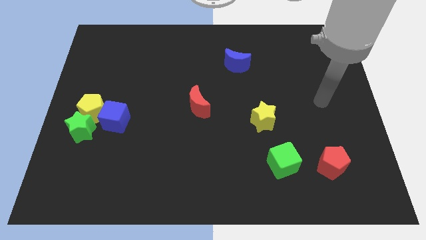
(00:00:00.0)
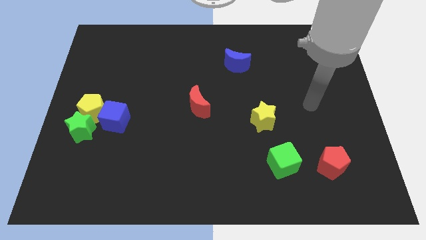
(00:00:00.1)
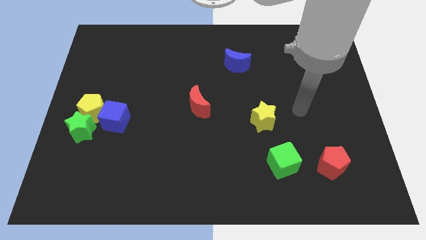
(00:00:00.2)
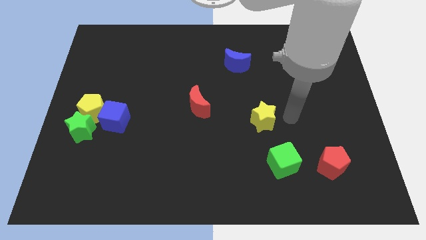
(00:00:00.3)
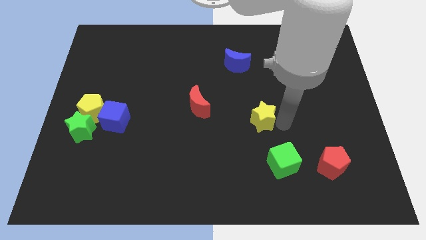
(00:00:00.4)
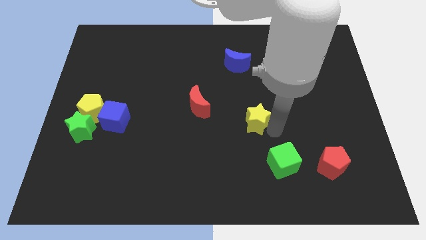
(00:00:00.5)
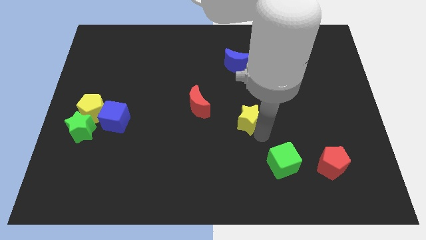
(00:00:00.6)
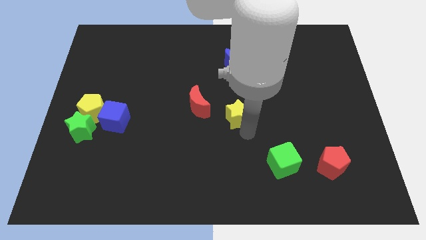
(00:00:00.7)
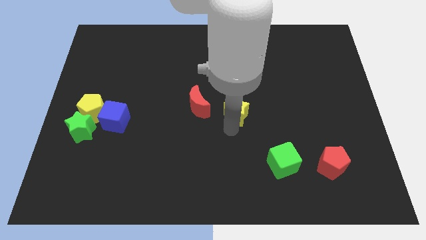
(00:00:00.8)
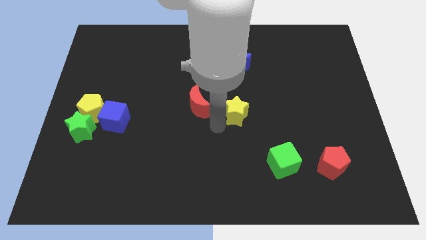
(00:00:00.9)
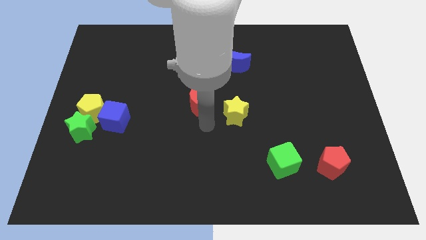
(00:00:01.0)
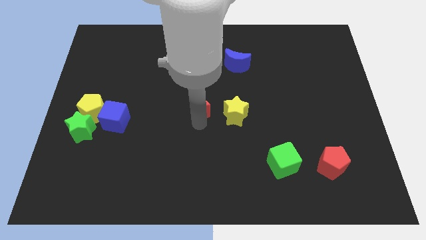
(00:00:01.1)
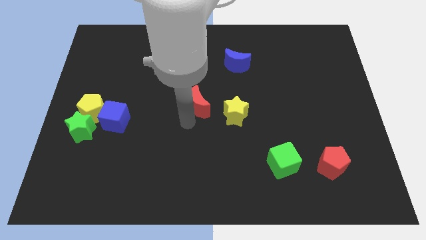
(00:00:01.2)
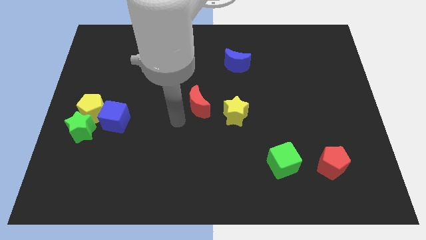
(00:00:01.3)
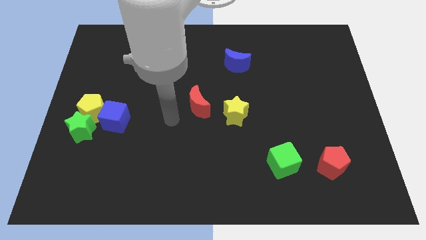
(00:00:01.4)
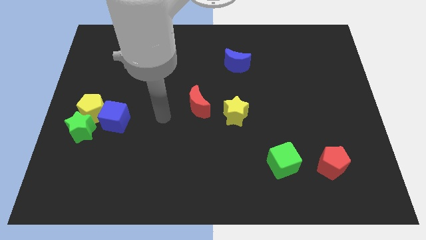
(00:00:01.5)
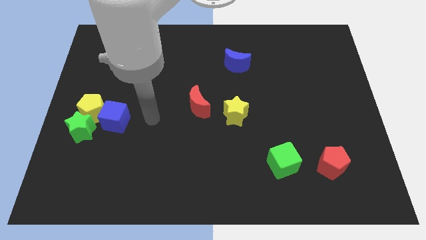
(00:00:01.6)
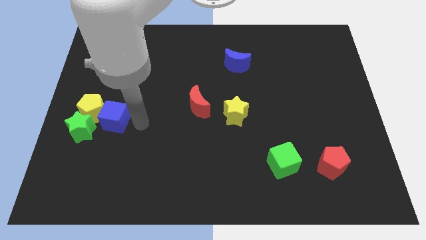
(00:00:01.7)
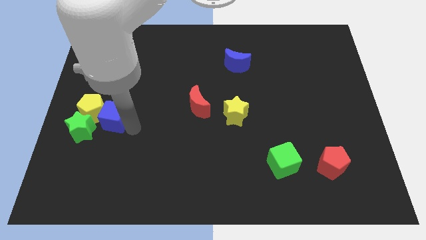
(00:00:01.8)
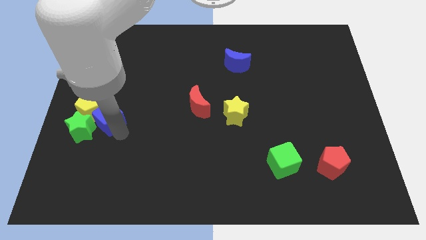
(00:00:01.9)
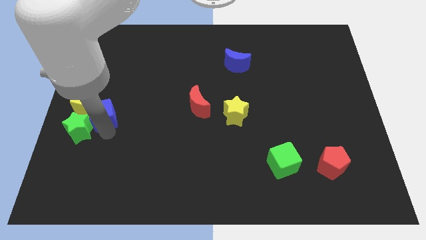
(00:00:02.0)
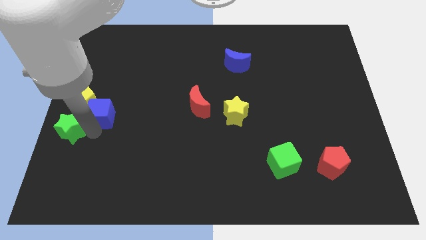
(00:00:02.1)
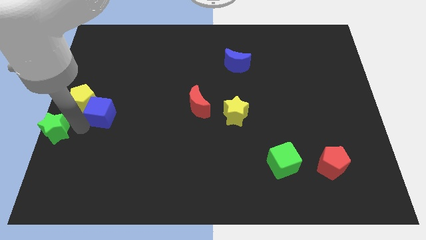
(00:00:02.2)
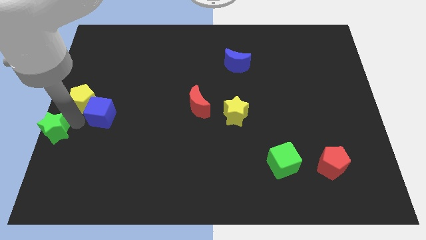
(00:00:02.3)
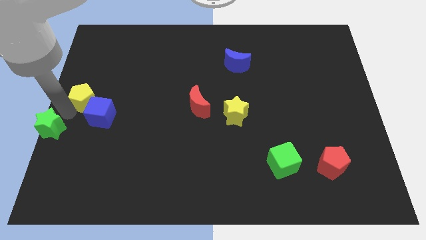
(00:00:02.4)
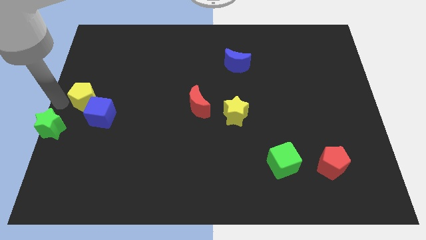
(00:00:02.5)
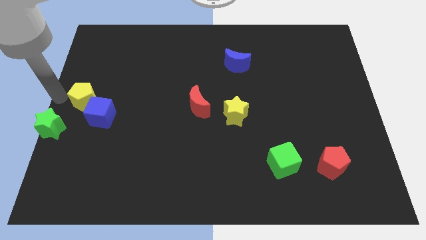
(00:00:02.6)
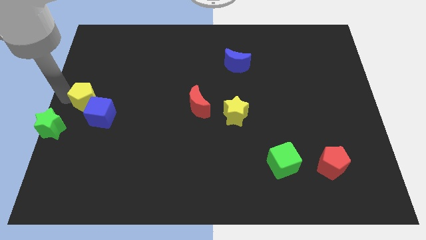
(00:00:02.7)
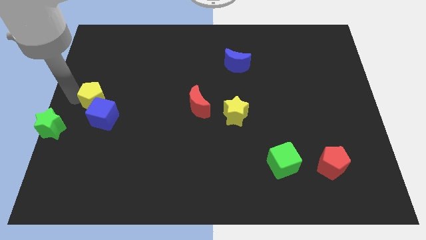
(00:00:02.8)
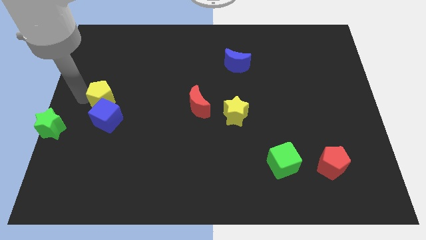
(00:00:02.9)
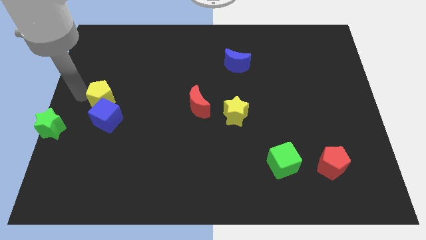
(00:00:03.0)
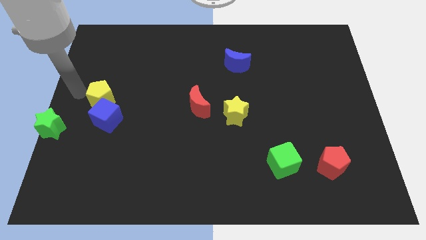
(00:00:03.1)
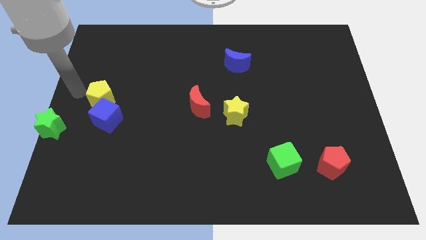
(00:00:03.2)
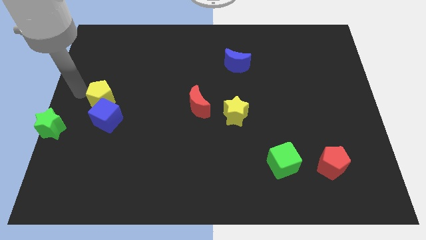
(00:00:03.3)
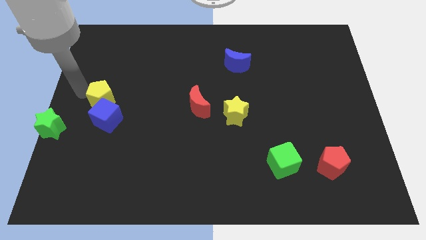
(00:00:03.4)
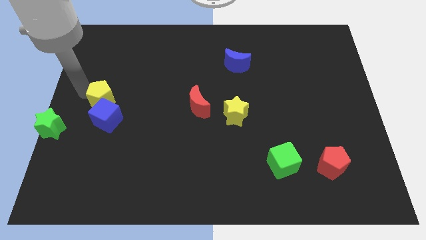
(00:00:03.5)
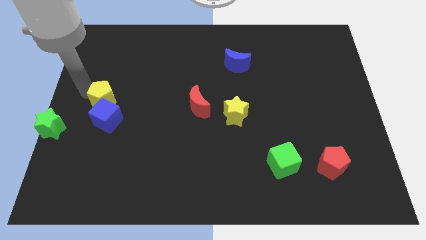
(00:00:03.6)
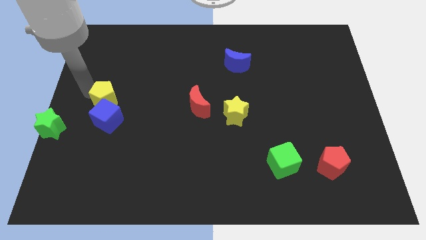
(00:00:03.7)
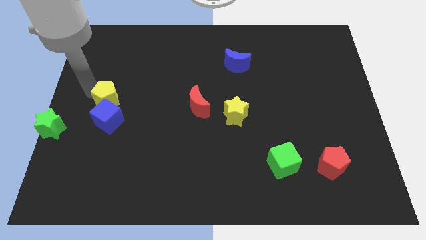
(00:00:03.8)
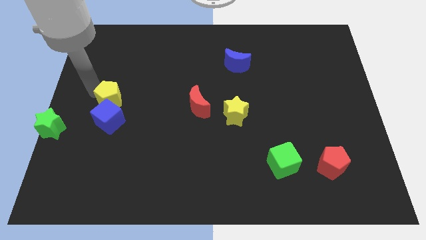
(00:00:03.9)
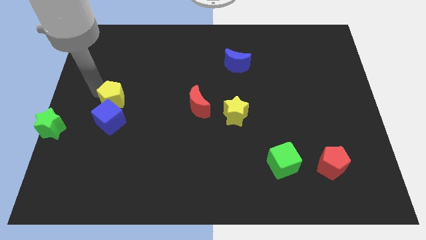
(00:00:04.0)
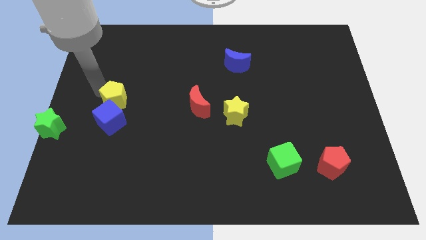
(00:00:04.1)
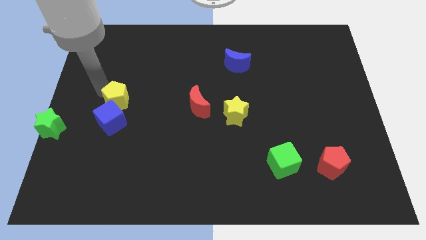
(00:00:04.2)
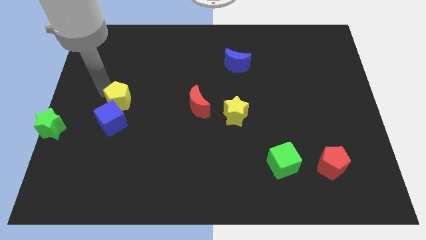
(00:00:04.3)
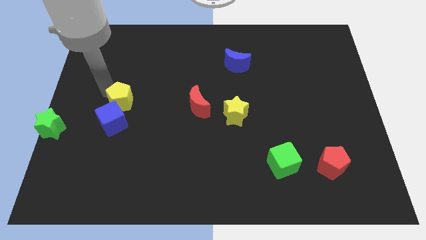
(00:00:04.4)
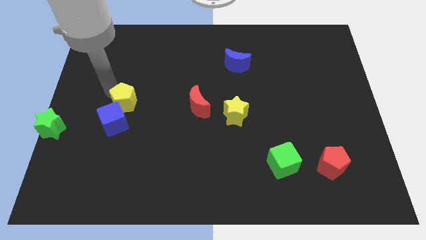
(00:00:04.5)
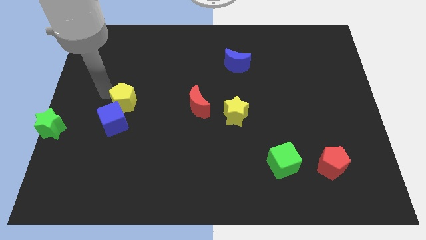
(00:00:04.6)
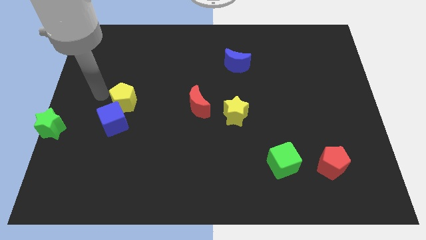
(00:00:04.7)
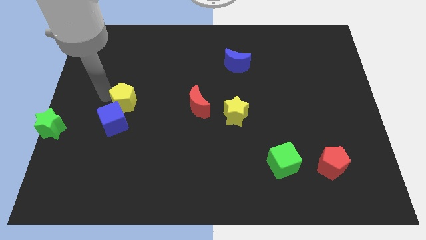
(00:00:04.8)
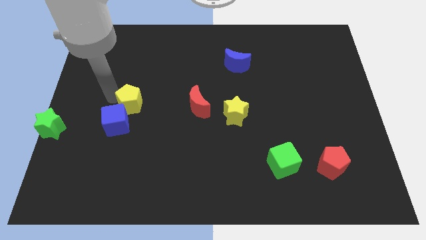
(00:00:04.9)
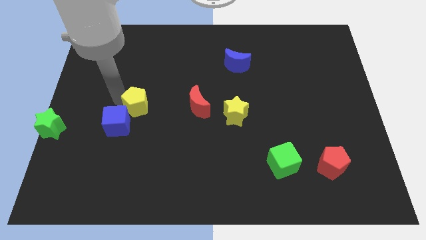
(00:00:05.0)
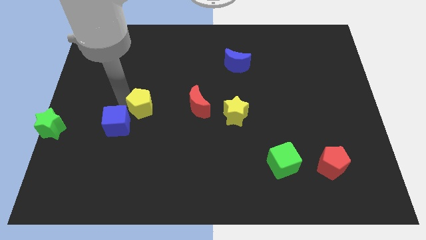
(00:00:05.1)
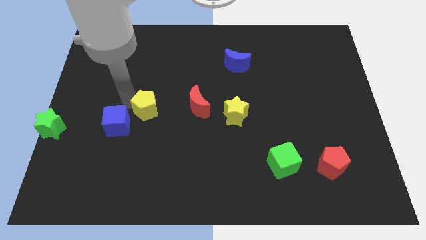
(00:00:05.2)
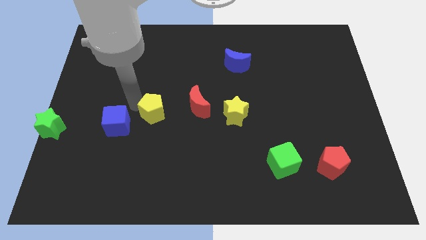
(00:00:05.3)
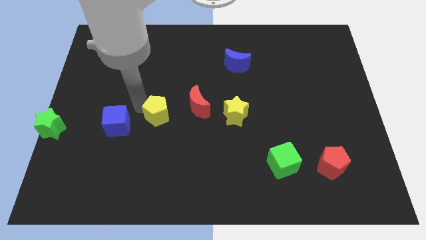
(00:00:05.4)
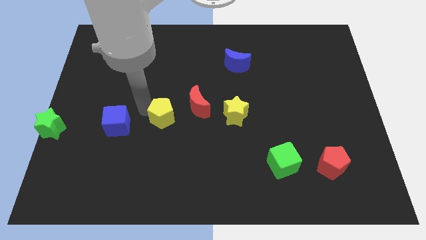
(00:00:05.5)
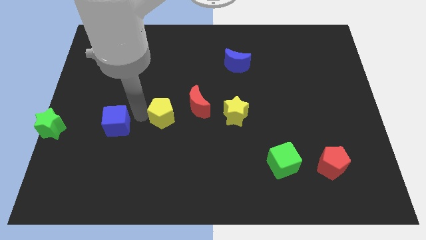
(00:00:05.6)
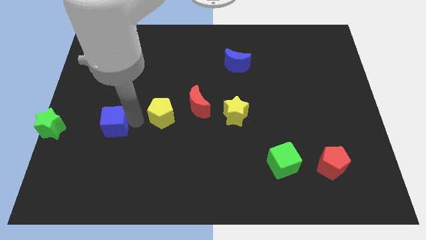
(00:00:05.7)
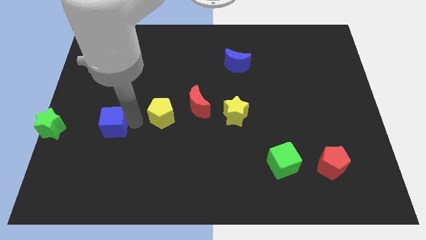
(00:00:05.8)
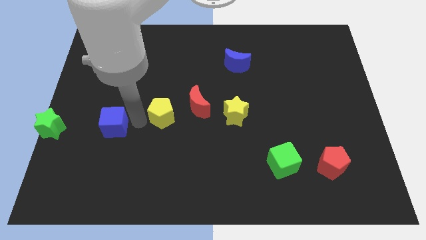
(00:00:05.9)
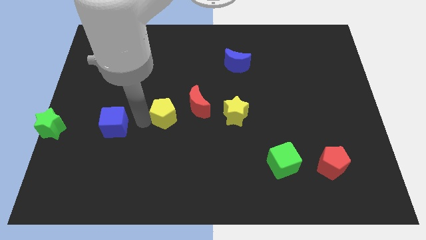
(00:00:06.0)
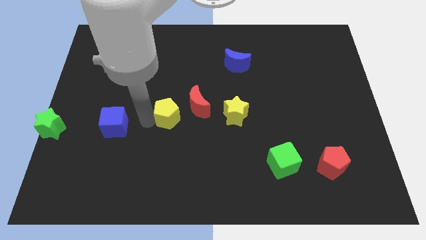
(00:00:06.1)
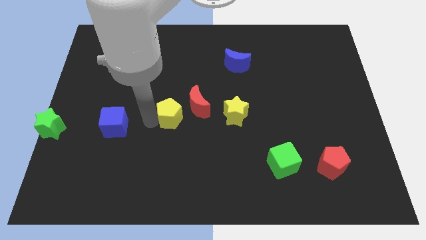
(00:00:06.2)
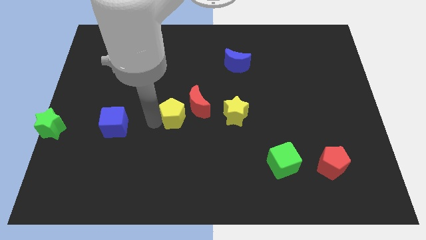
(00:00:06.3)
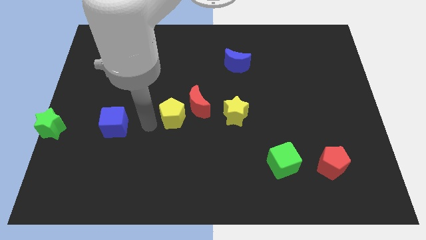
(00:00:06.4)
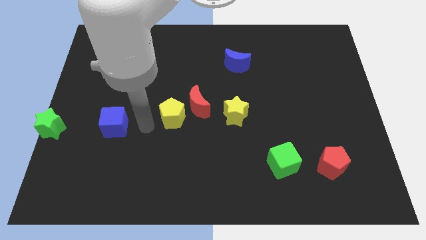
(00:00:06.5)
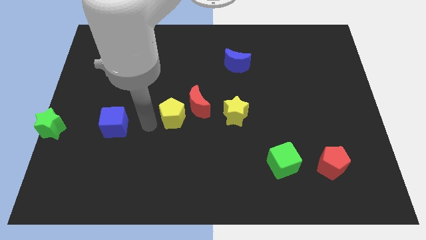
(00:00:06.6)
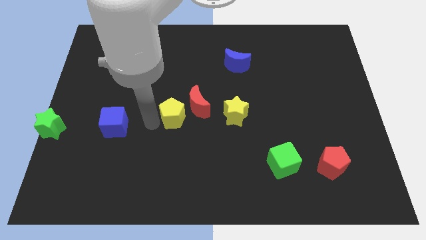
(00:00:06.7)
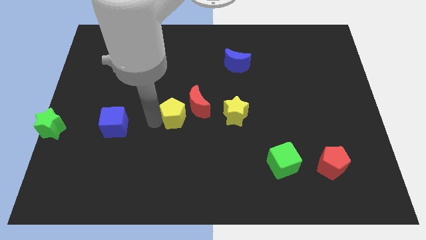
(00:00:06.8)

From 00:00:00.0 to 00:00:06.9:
move the yellow pentagon next to the red moon
